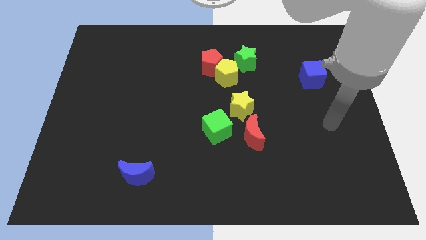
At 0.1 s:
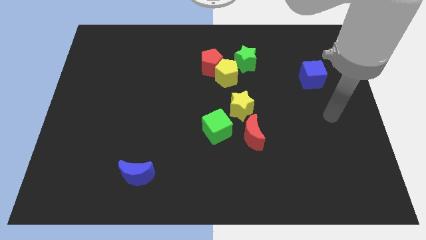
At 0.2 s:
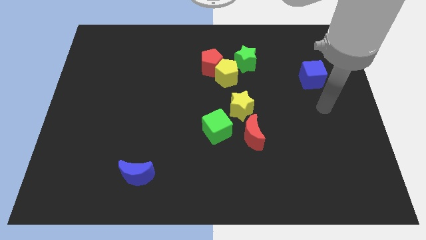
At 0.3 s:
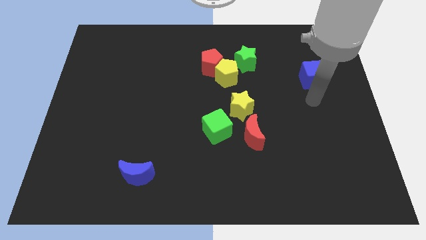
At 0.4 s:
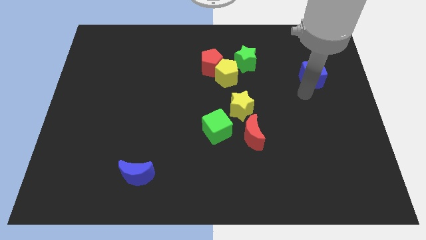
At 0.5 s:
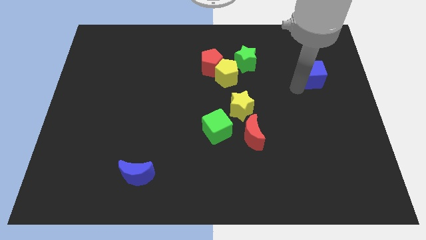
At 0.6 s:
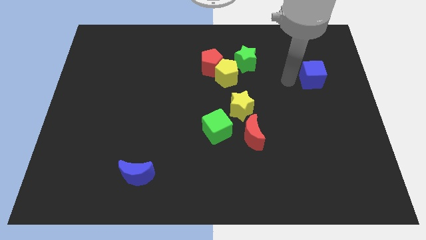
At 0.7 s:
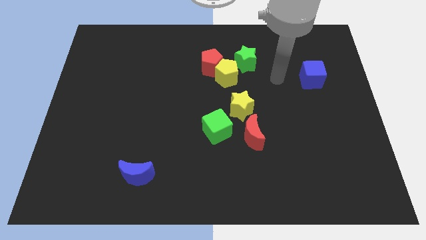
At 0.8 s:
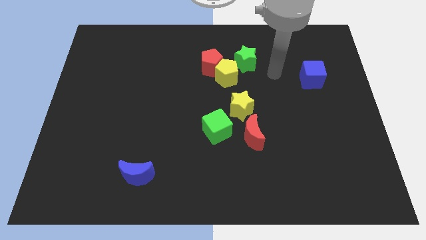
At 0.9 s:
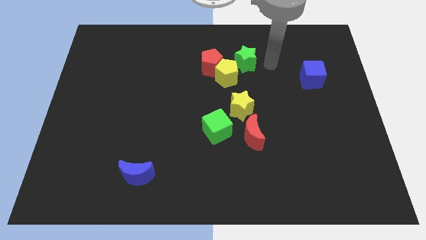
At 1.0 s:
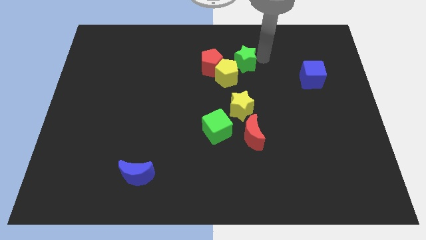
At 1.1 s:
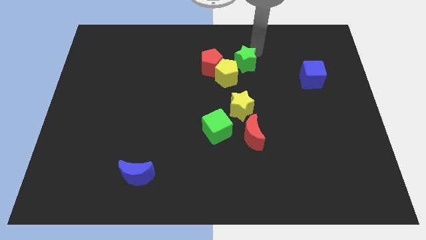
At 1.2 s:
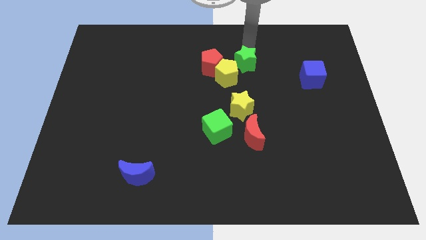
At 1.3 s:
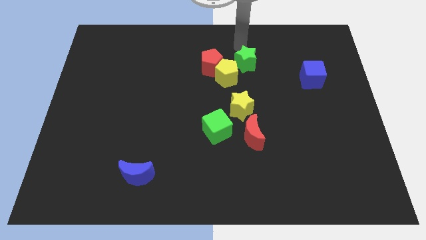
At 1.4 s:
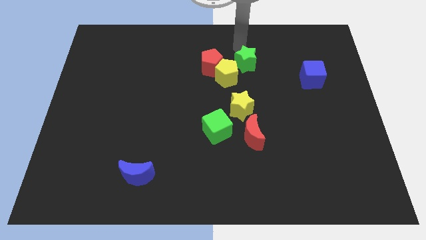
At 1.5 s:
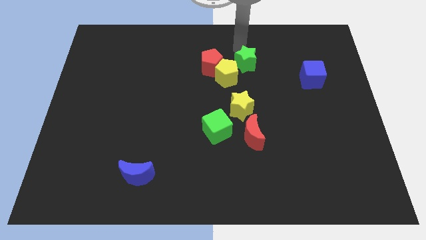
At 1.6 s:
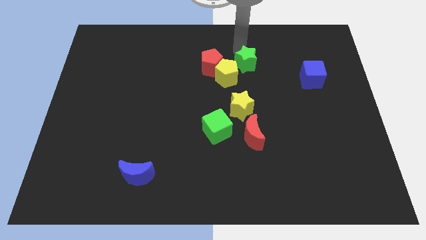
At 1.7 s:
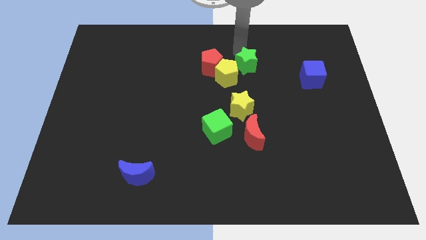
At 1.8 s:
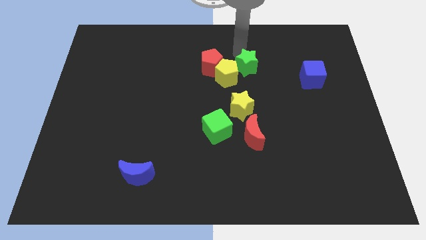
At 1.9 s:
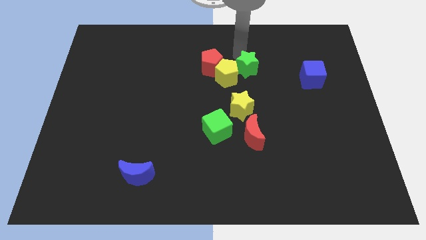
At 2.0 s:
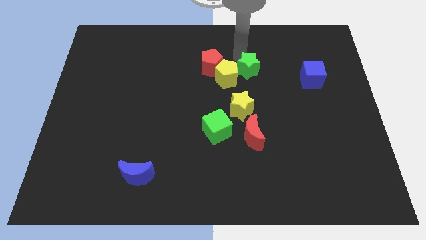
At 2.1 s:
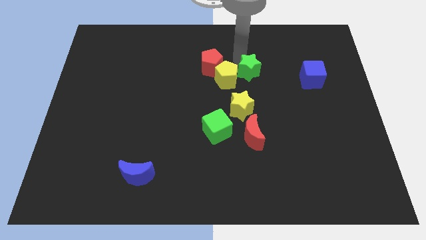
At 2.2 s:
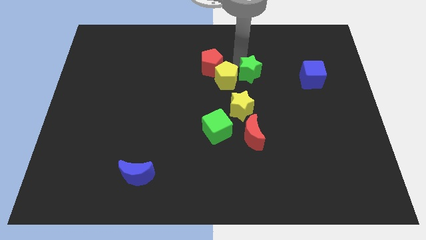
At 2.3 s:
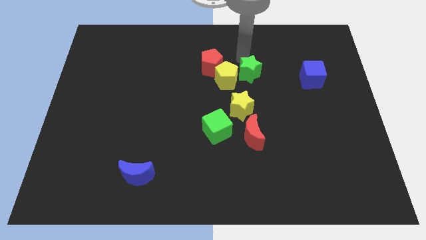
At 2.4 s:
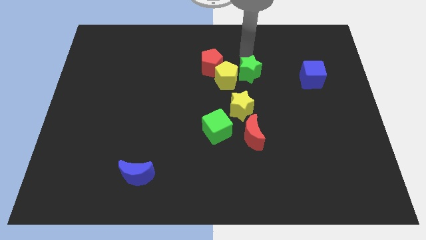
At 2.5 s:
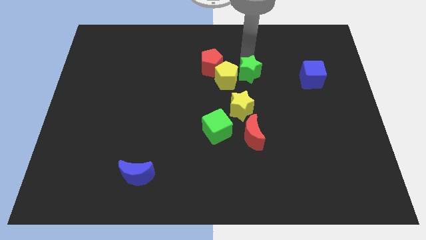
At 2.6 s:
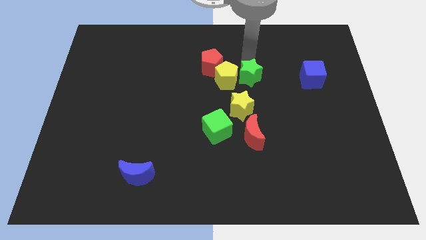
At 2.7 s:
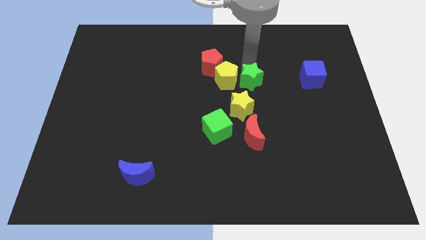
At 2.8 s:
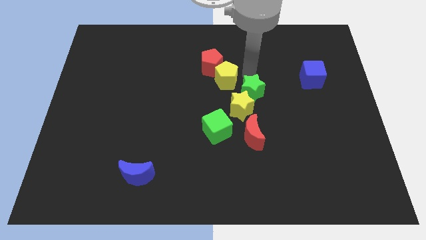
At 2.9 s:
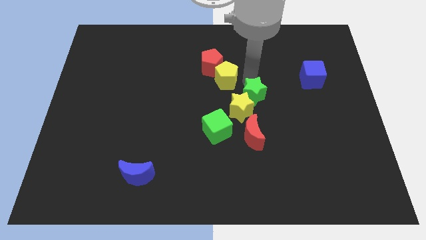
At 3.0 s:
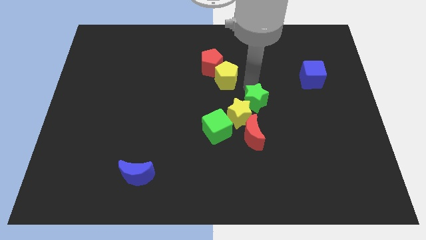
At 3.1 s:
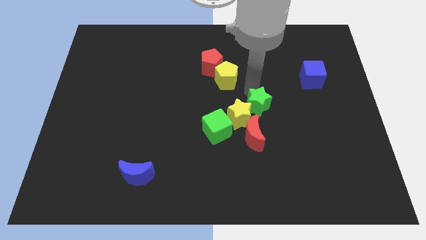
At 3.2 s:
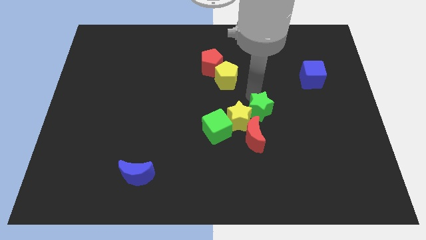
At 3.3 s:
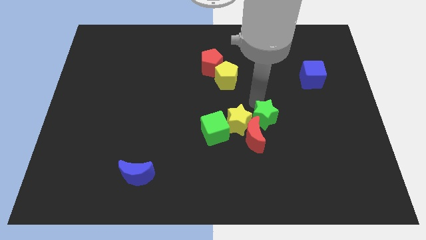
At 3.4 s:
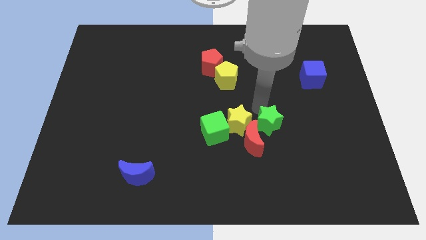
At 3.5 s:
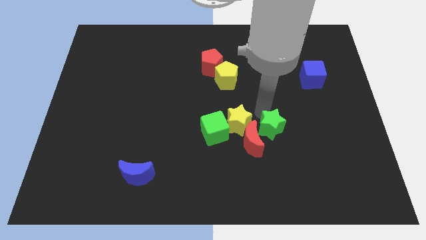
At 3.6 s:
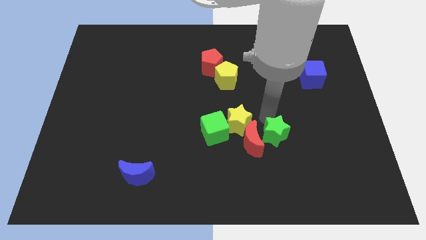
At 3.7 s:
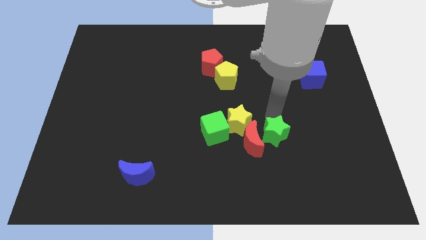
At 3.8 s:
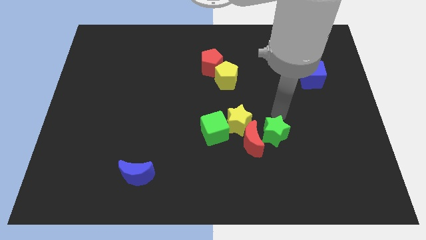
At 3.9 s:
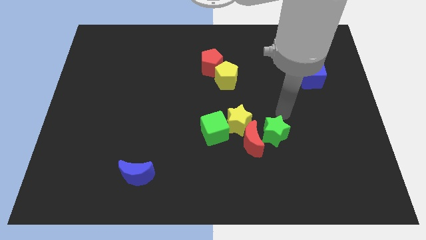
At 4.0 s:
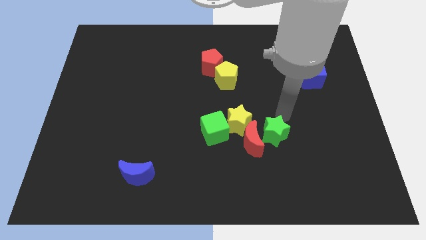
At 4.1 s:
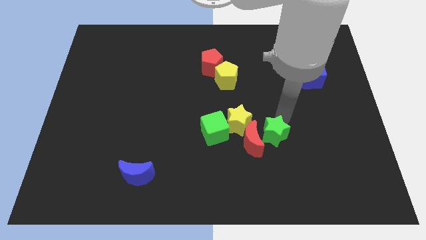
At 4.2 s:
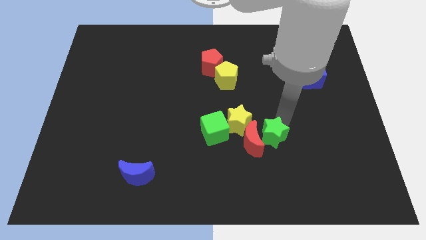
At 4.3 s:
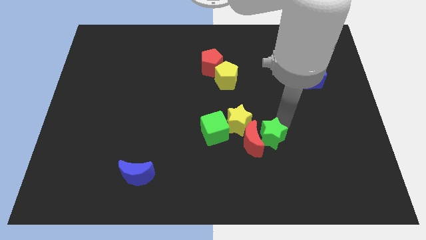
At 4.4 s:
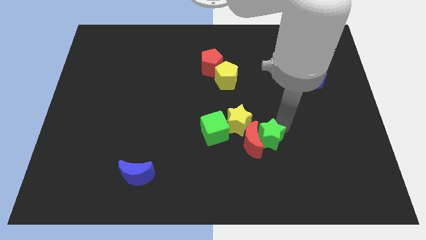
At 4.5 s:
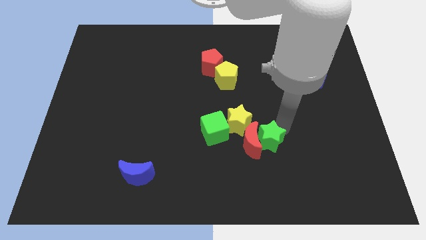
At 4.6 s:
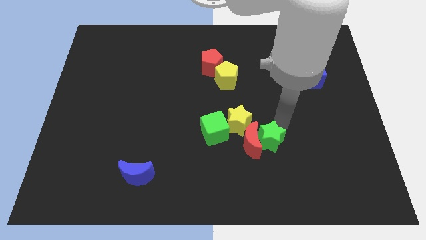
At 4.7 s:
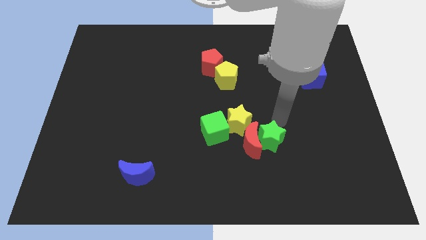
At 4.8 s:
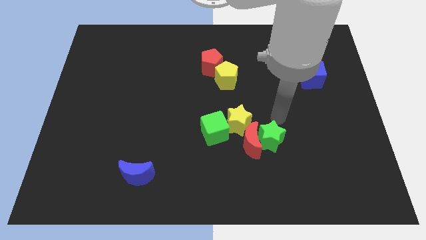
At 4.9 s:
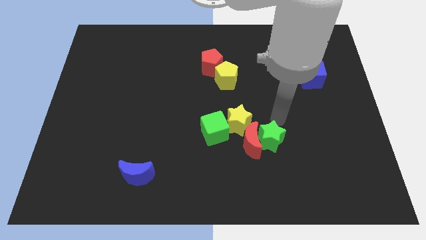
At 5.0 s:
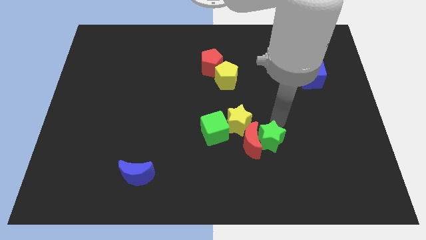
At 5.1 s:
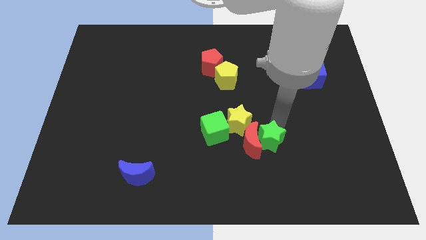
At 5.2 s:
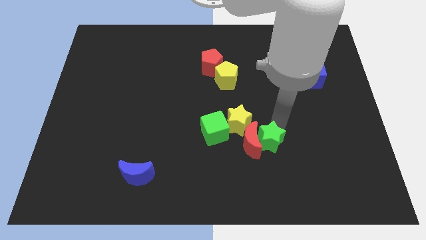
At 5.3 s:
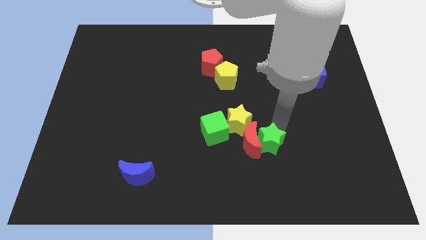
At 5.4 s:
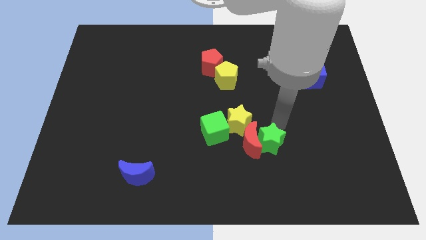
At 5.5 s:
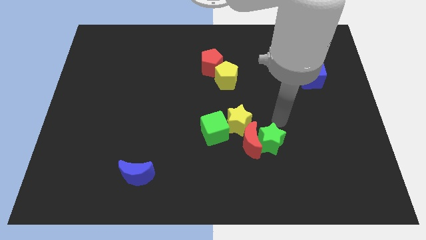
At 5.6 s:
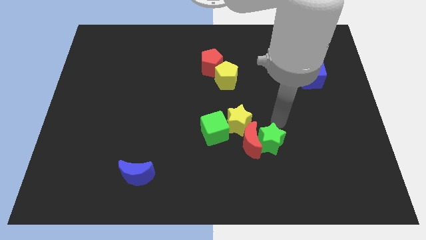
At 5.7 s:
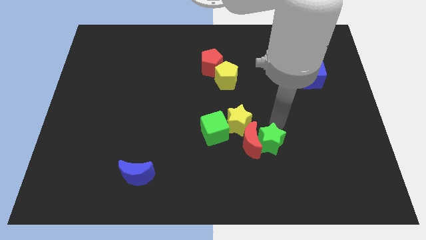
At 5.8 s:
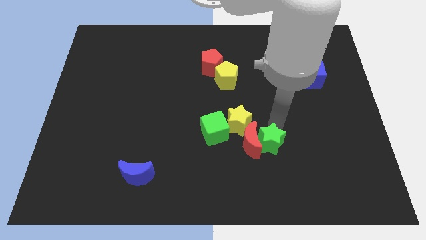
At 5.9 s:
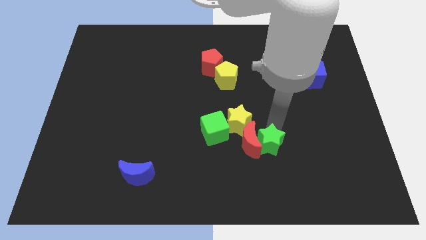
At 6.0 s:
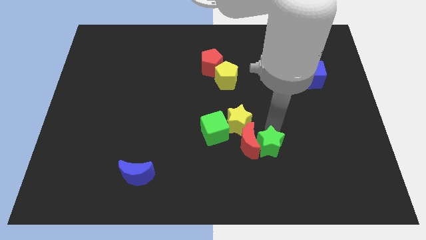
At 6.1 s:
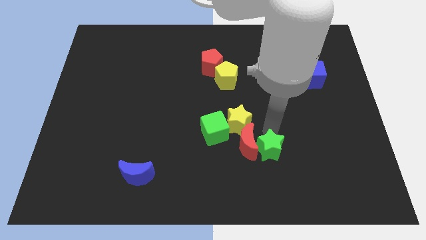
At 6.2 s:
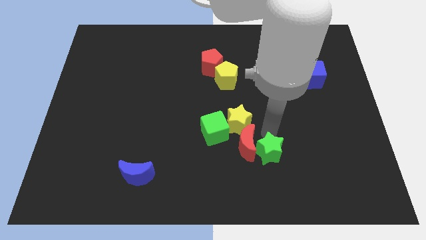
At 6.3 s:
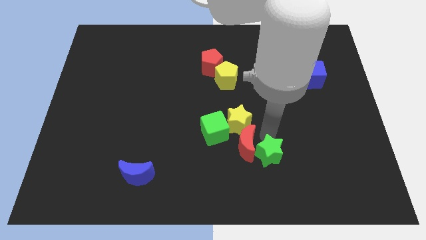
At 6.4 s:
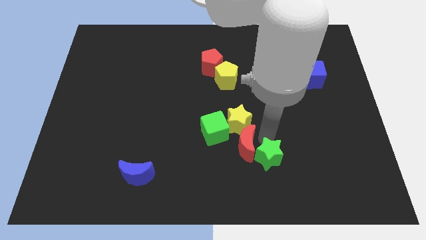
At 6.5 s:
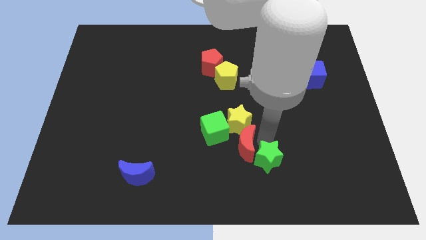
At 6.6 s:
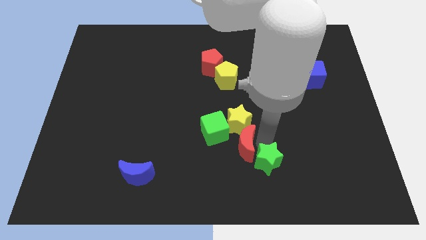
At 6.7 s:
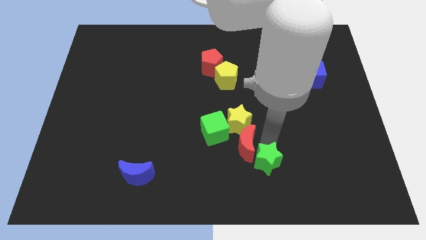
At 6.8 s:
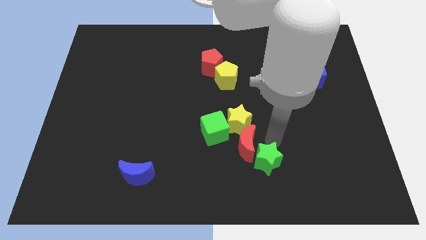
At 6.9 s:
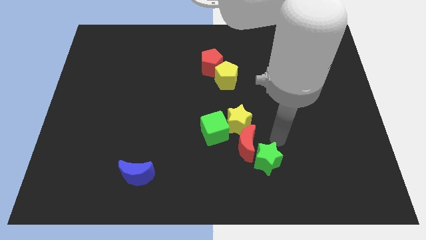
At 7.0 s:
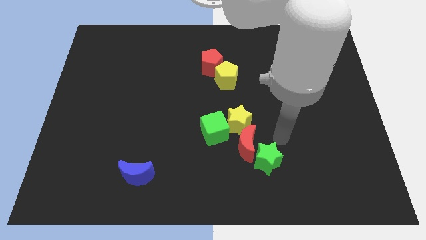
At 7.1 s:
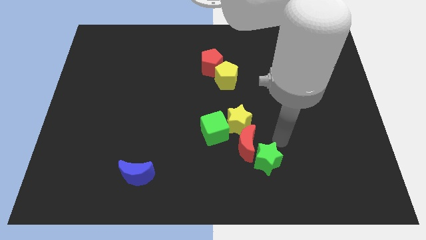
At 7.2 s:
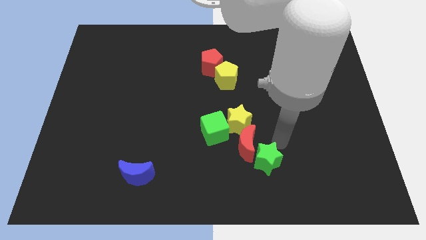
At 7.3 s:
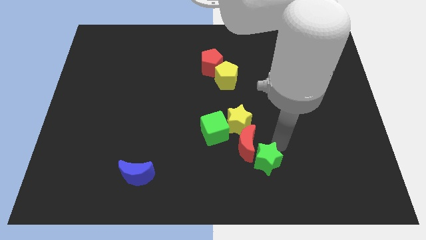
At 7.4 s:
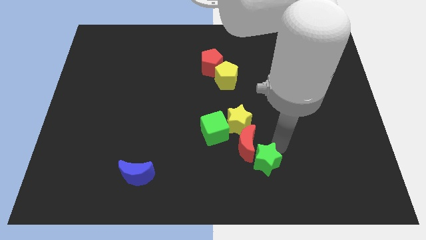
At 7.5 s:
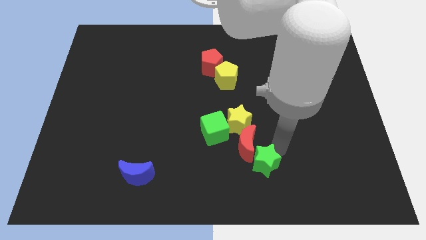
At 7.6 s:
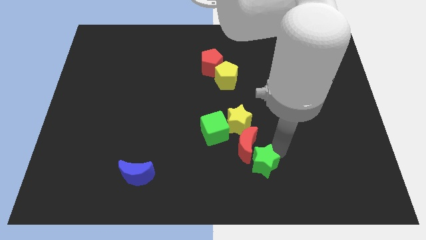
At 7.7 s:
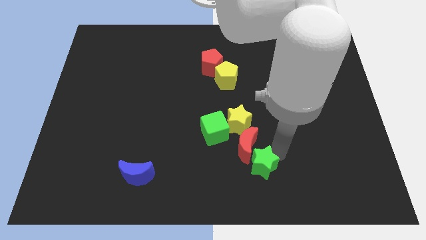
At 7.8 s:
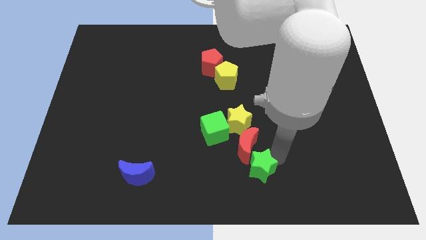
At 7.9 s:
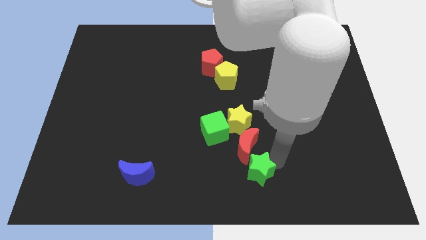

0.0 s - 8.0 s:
push the green star to the bottom
